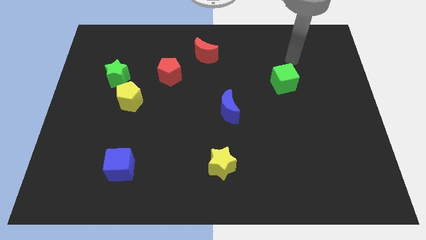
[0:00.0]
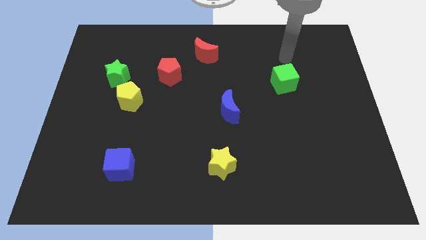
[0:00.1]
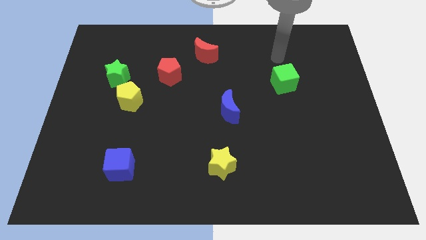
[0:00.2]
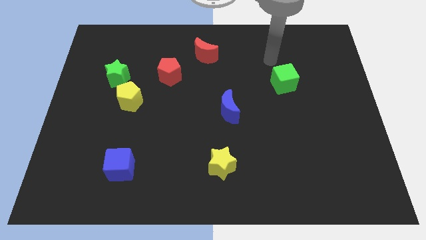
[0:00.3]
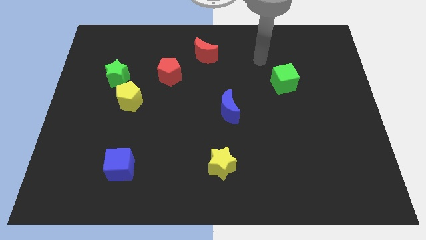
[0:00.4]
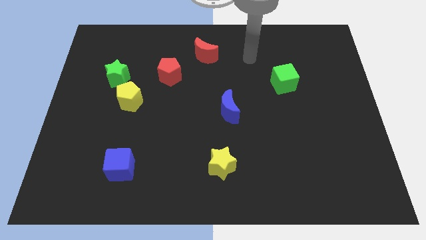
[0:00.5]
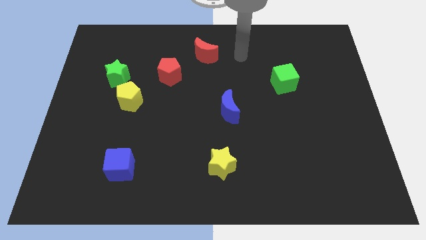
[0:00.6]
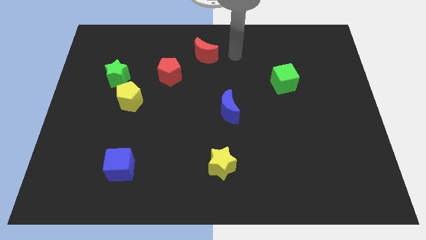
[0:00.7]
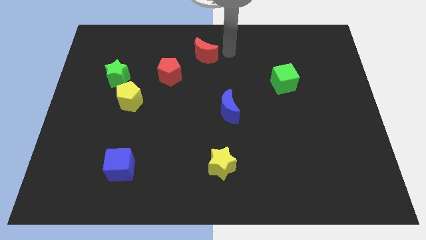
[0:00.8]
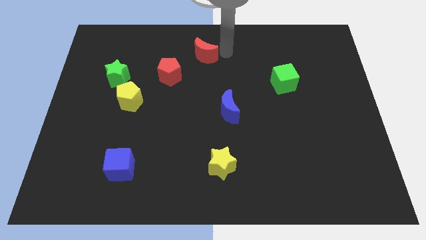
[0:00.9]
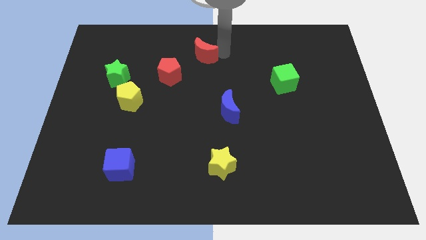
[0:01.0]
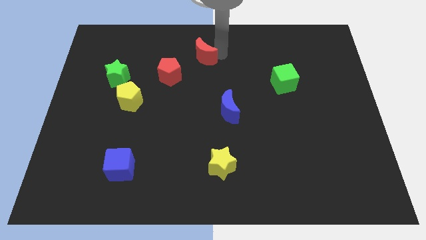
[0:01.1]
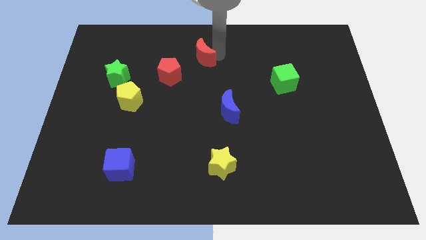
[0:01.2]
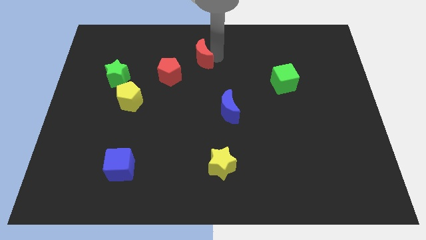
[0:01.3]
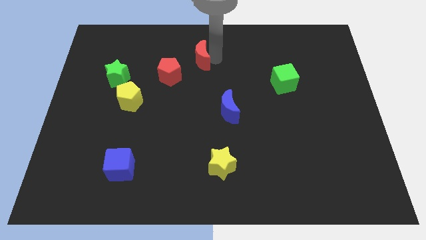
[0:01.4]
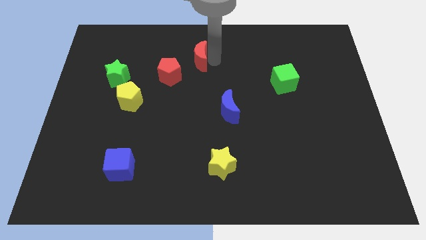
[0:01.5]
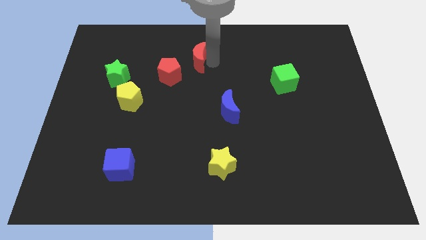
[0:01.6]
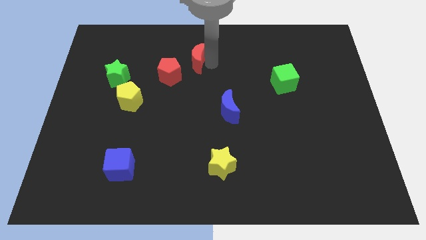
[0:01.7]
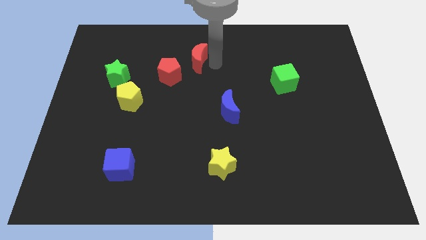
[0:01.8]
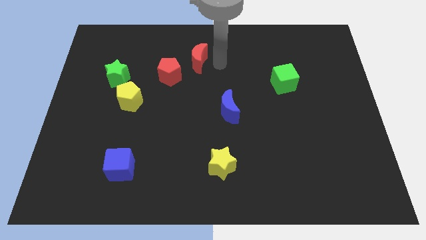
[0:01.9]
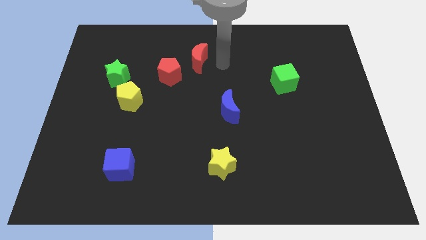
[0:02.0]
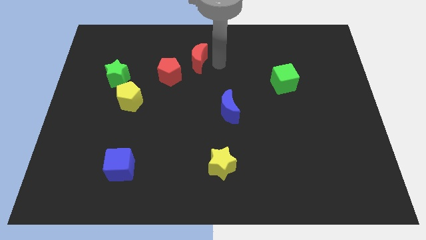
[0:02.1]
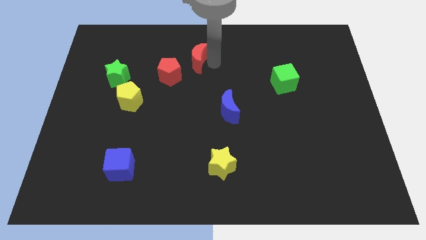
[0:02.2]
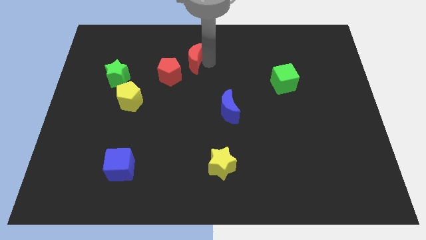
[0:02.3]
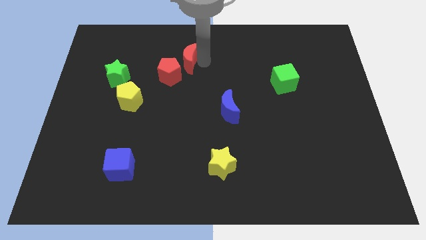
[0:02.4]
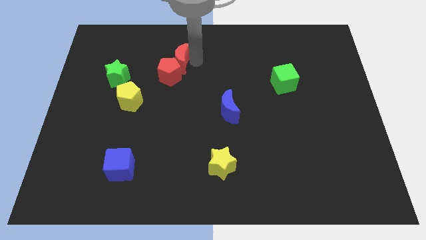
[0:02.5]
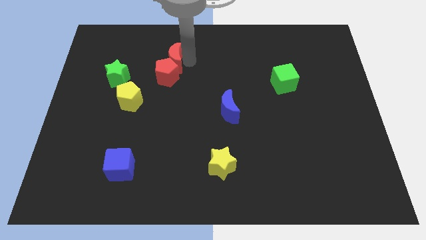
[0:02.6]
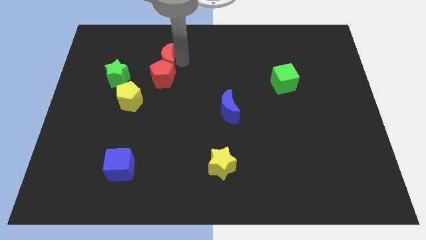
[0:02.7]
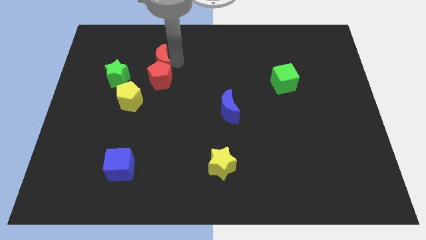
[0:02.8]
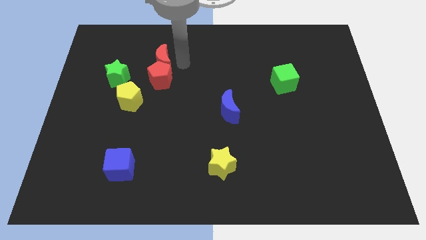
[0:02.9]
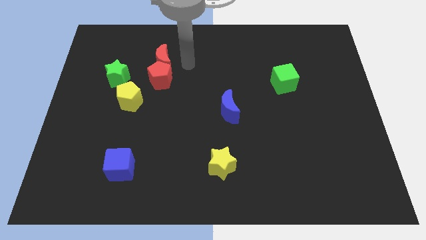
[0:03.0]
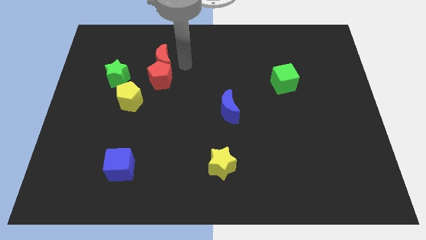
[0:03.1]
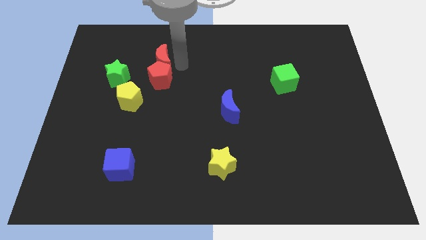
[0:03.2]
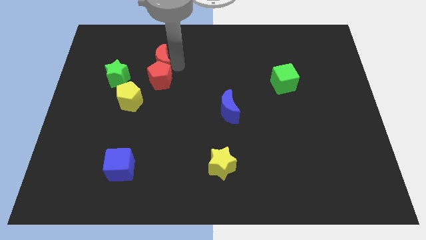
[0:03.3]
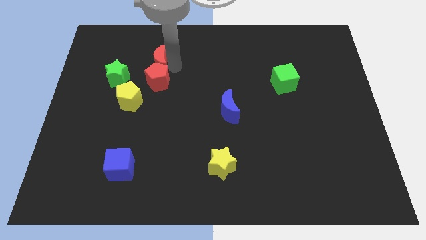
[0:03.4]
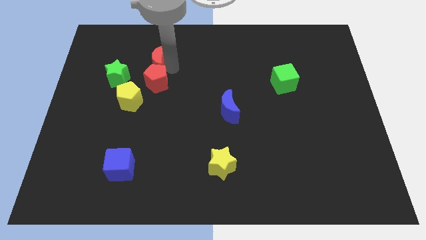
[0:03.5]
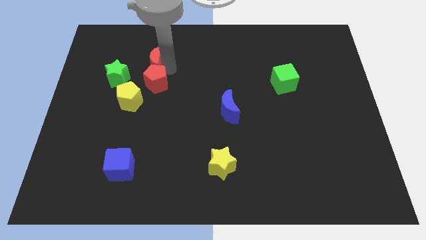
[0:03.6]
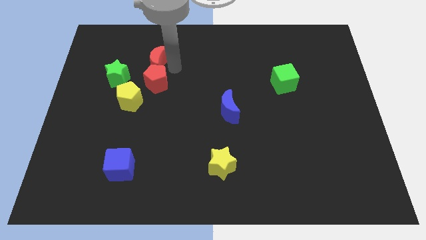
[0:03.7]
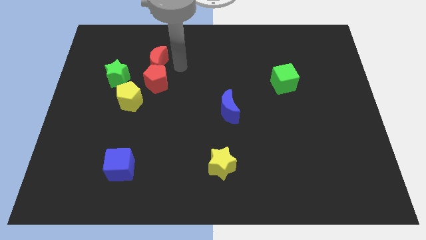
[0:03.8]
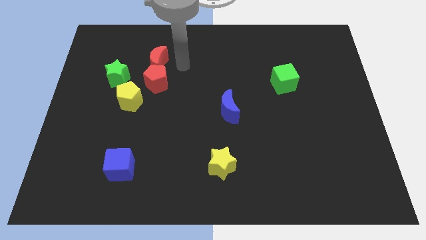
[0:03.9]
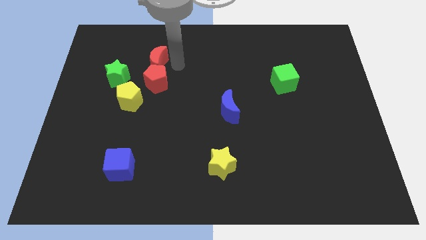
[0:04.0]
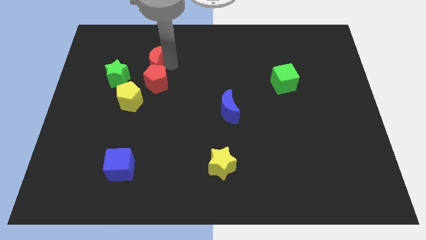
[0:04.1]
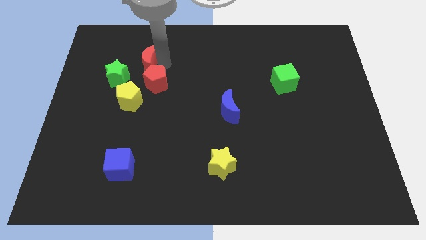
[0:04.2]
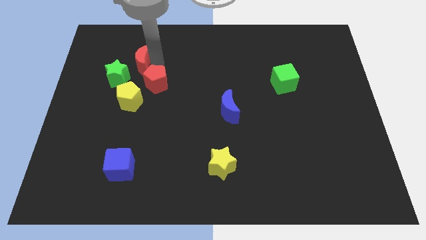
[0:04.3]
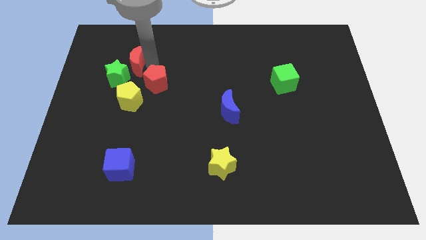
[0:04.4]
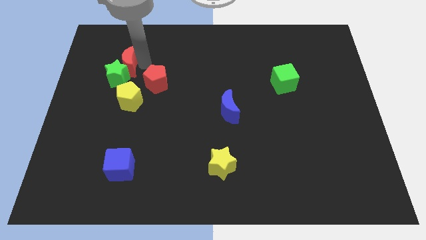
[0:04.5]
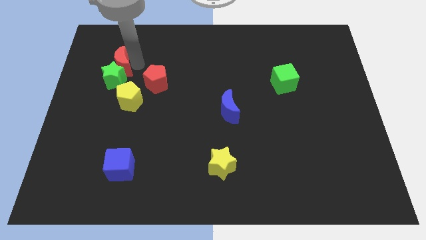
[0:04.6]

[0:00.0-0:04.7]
push the red moon to the top left side of the green star

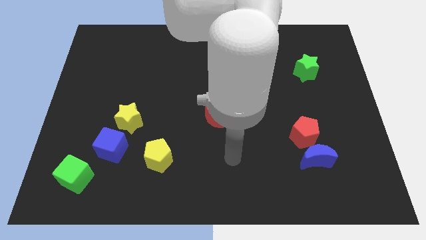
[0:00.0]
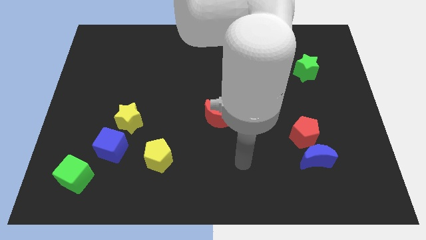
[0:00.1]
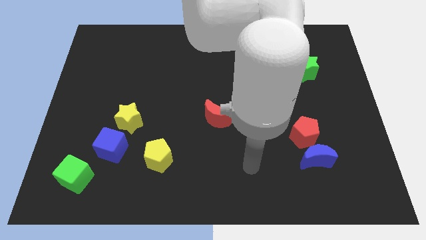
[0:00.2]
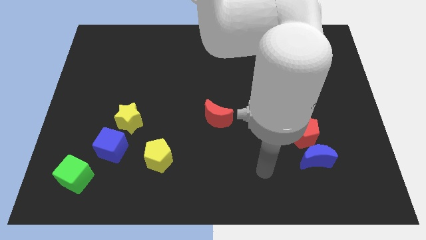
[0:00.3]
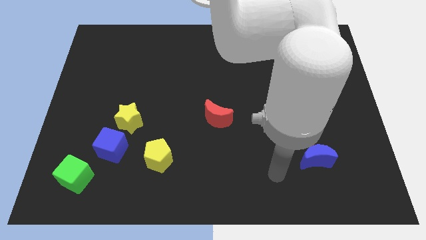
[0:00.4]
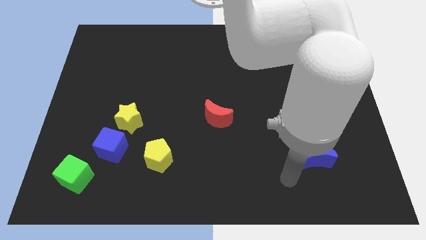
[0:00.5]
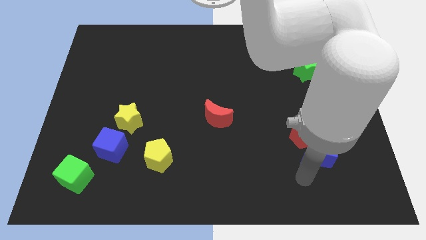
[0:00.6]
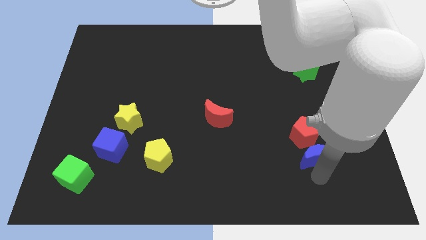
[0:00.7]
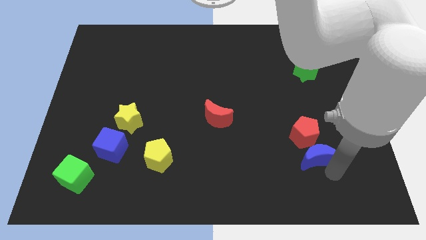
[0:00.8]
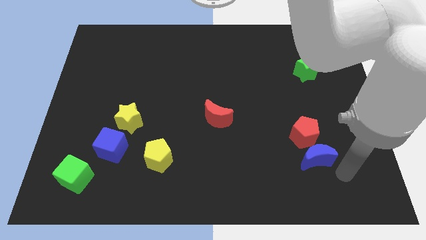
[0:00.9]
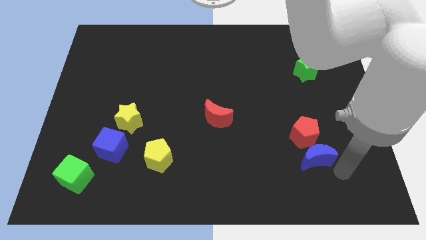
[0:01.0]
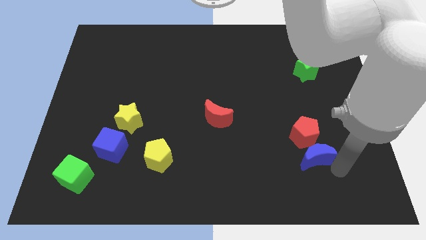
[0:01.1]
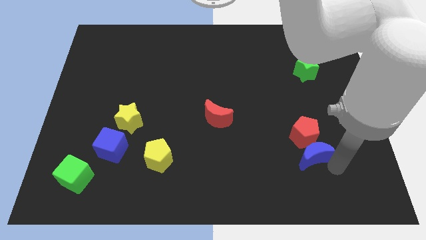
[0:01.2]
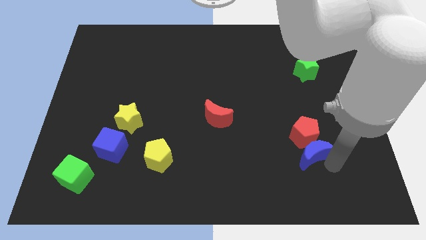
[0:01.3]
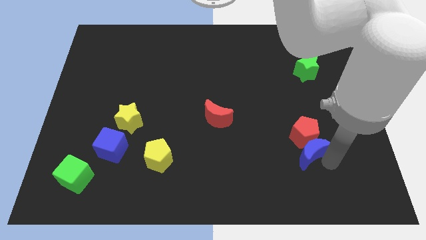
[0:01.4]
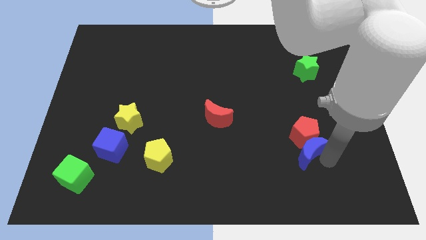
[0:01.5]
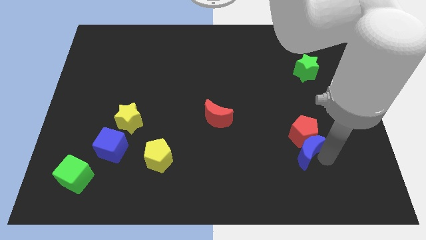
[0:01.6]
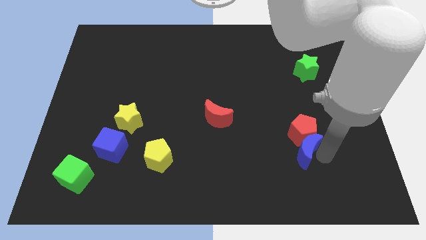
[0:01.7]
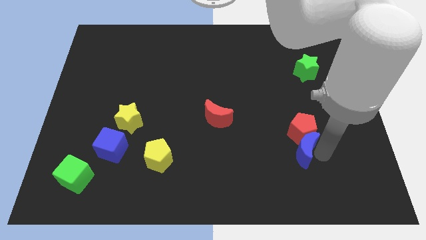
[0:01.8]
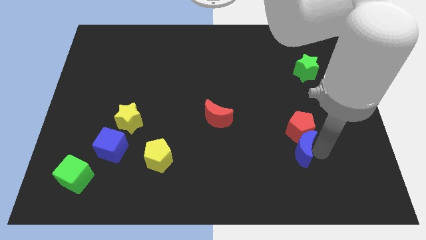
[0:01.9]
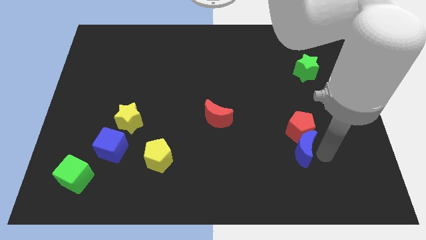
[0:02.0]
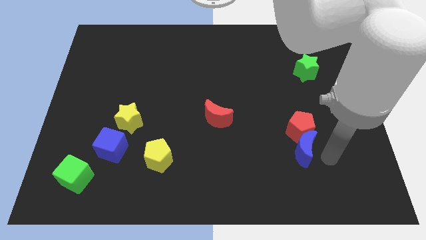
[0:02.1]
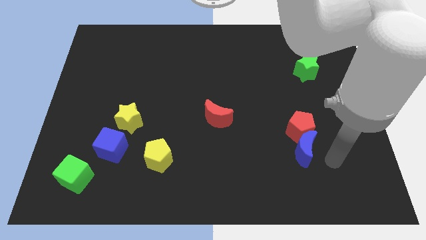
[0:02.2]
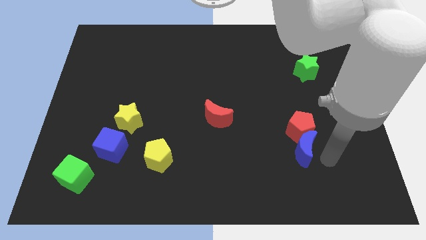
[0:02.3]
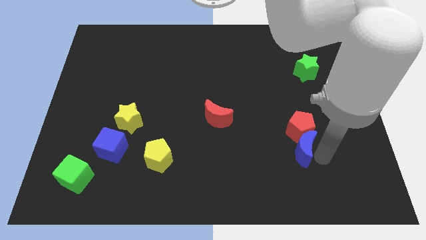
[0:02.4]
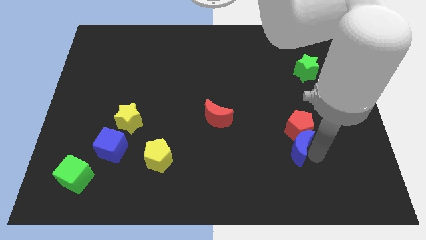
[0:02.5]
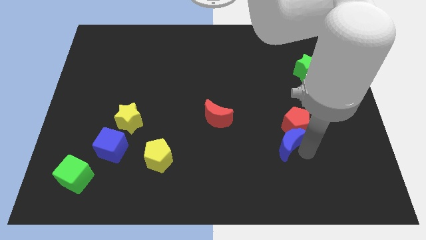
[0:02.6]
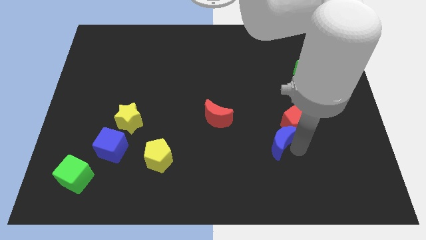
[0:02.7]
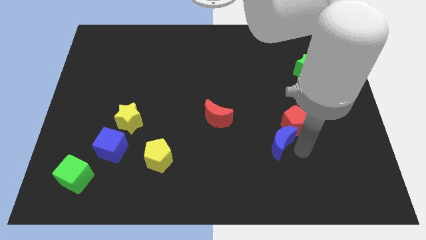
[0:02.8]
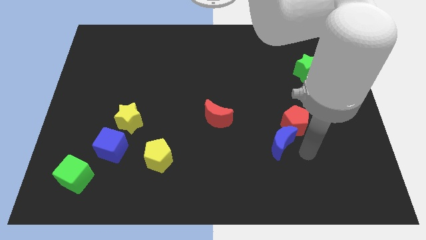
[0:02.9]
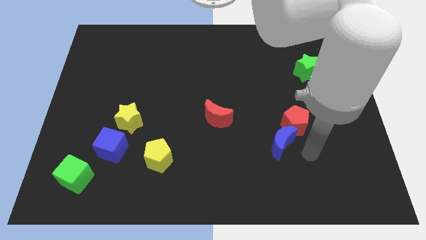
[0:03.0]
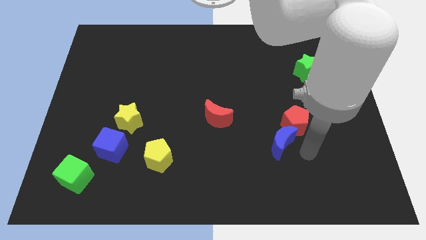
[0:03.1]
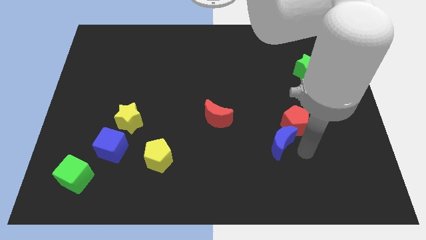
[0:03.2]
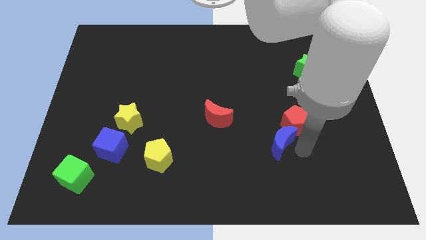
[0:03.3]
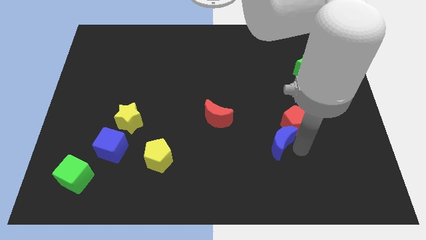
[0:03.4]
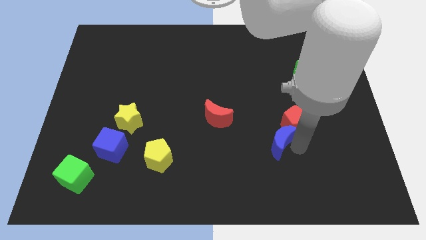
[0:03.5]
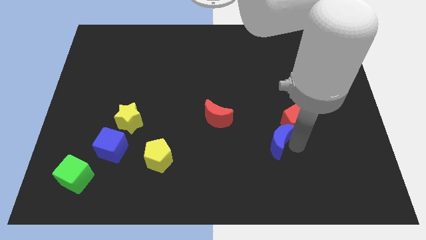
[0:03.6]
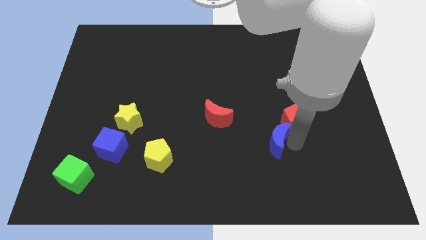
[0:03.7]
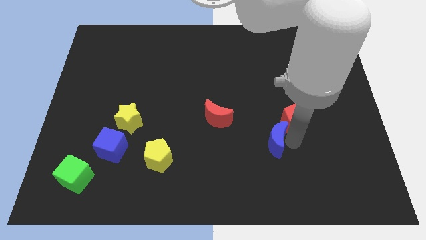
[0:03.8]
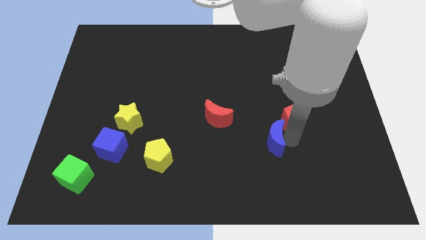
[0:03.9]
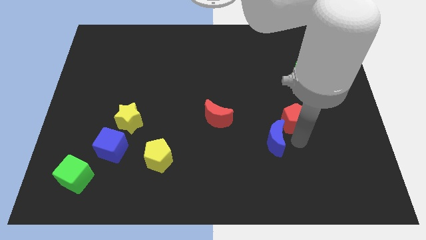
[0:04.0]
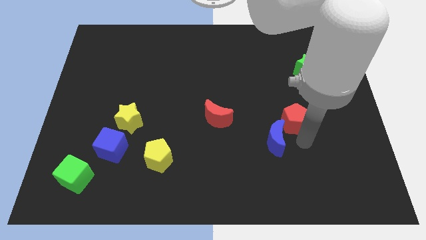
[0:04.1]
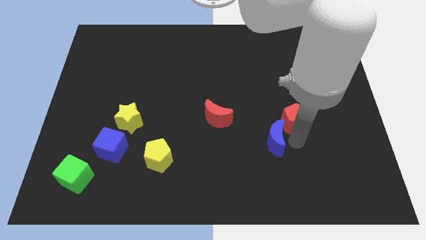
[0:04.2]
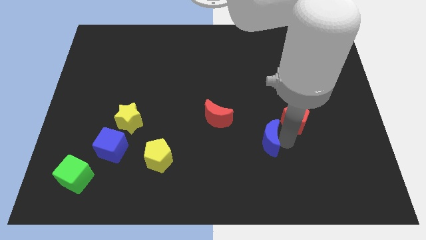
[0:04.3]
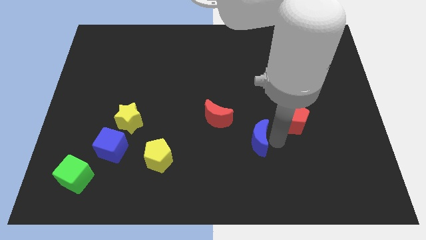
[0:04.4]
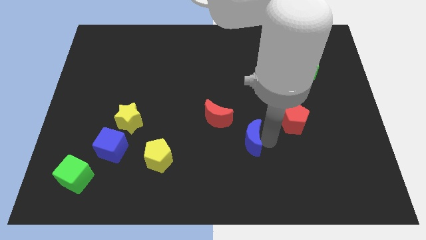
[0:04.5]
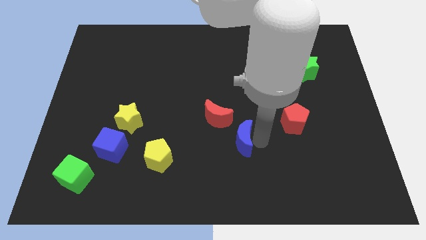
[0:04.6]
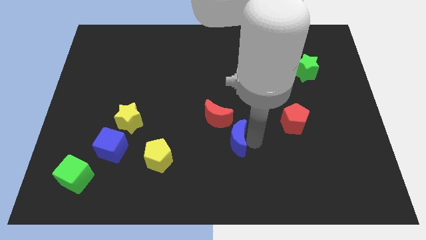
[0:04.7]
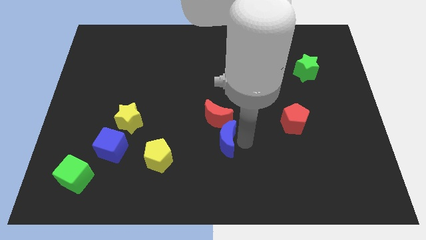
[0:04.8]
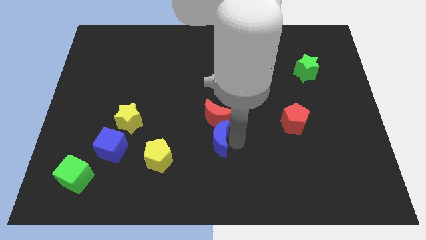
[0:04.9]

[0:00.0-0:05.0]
put the blue moon to the bottom left side of the red moon
